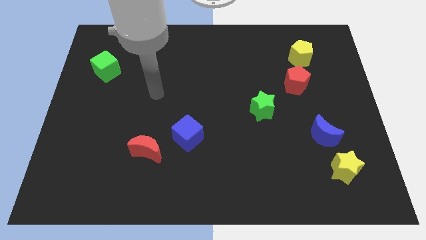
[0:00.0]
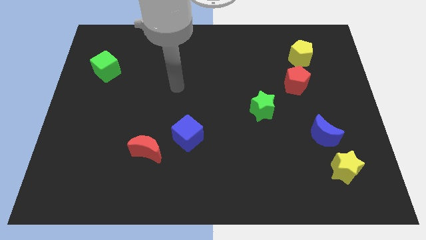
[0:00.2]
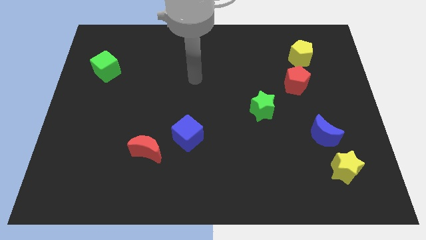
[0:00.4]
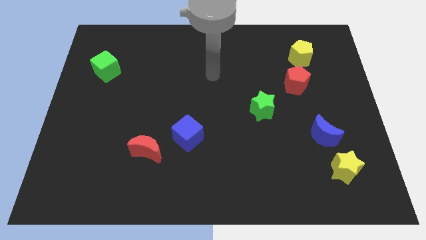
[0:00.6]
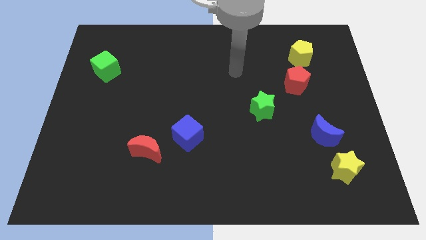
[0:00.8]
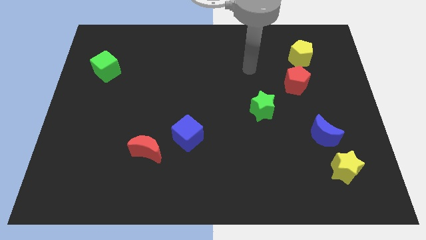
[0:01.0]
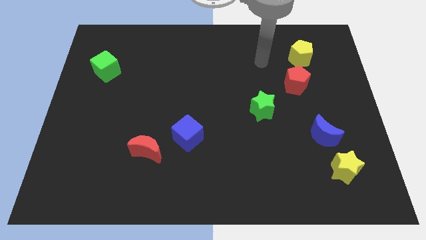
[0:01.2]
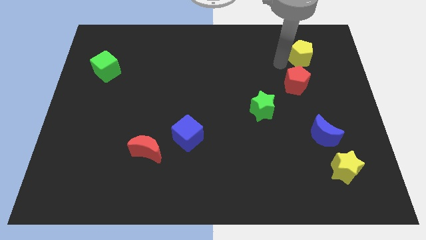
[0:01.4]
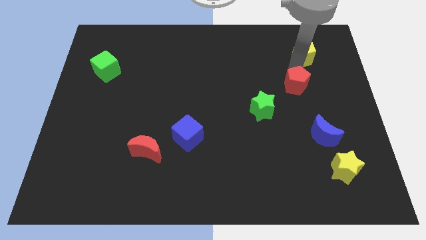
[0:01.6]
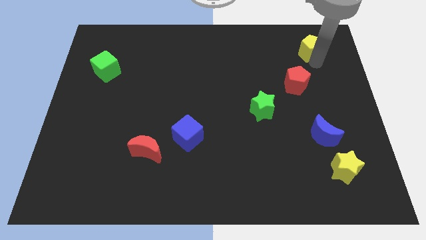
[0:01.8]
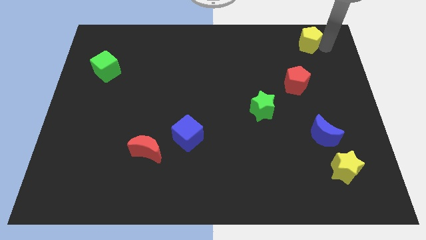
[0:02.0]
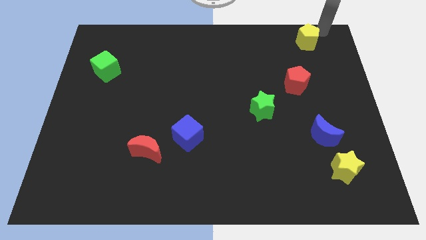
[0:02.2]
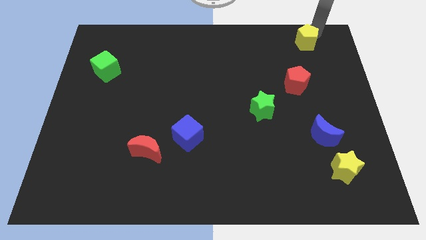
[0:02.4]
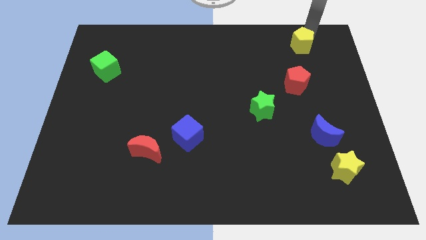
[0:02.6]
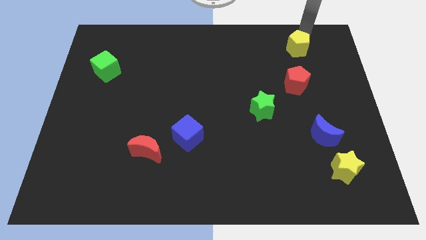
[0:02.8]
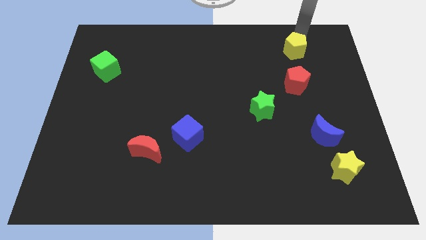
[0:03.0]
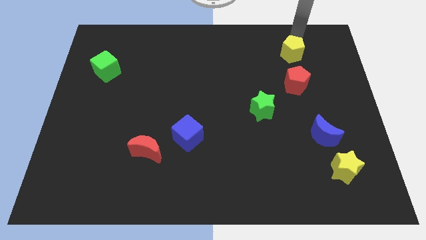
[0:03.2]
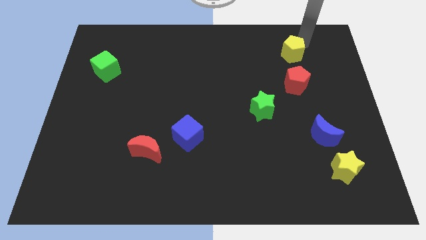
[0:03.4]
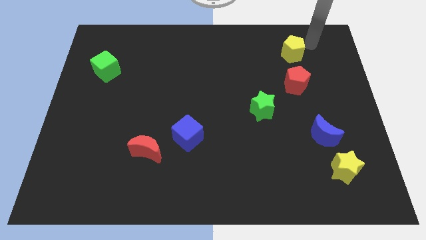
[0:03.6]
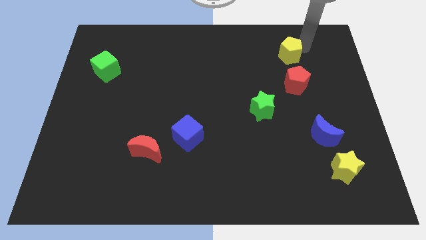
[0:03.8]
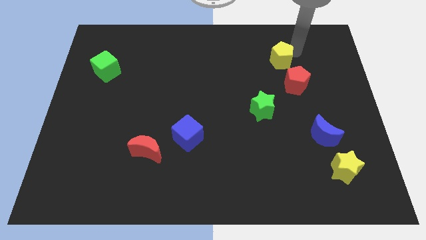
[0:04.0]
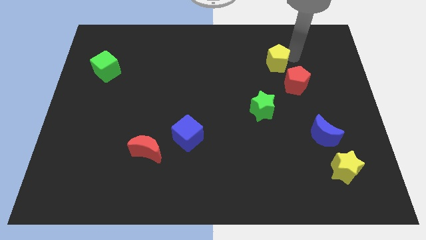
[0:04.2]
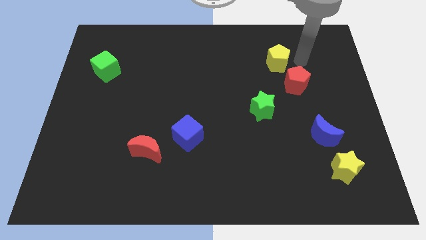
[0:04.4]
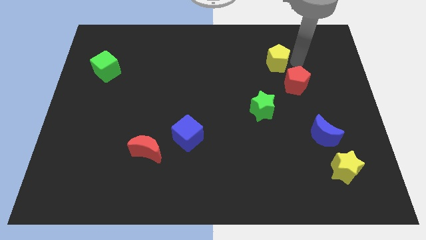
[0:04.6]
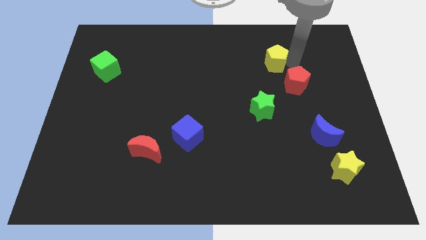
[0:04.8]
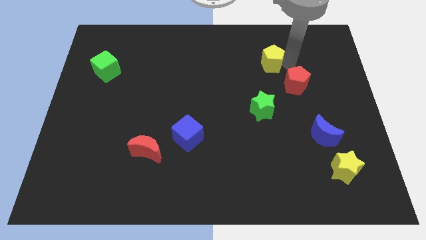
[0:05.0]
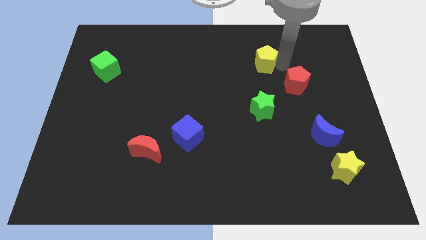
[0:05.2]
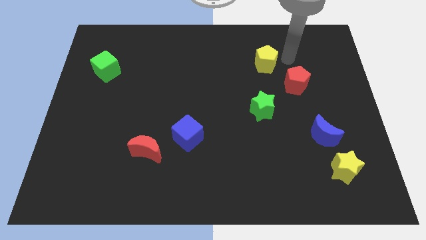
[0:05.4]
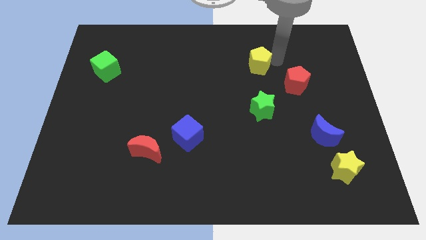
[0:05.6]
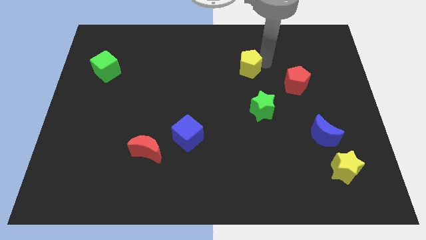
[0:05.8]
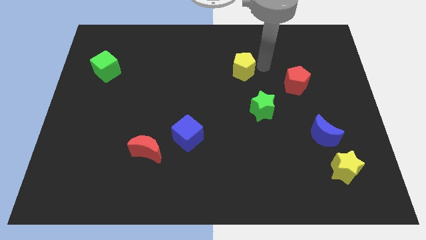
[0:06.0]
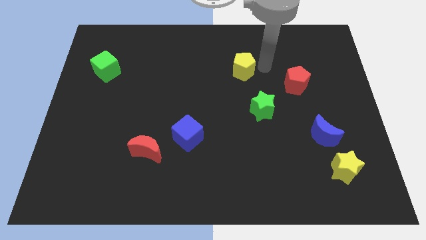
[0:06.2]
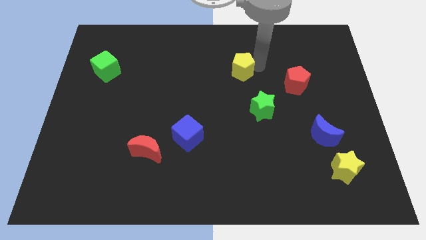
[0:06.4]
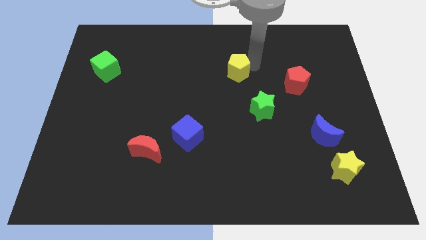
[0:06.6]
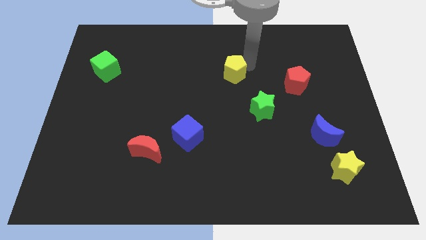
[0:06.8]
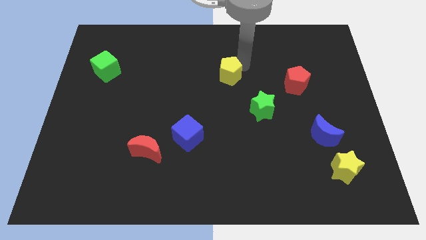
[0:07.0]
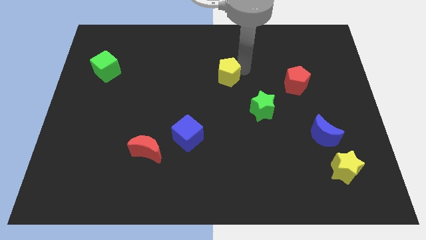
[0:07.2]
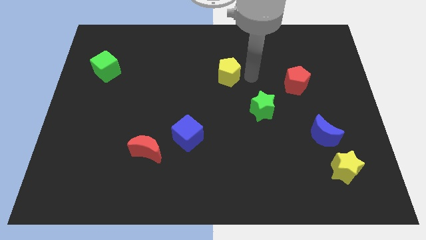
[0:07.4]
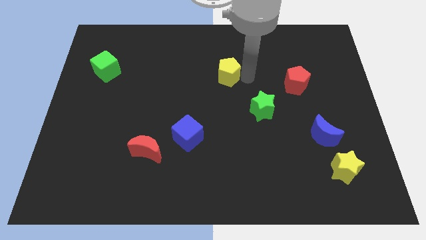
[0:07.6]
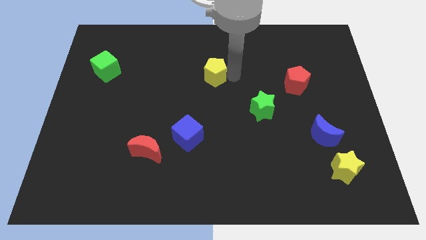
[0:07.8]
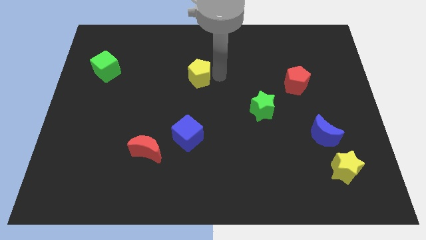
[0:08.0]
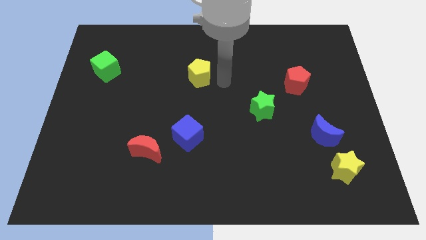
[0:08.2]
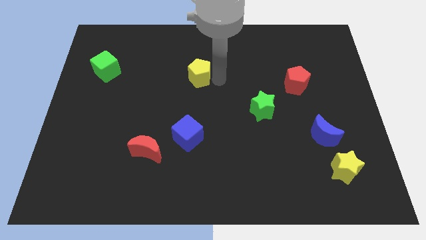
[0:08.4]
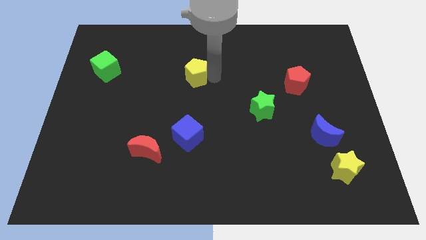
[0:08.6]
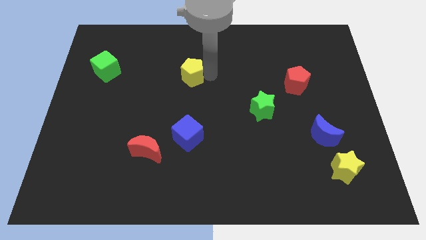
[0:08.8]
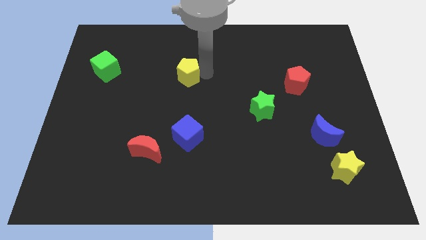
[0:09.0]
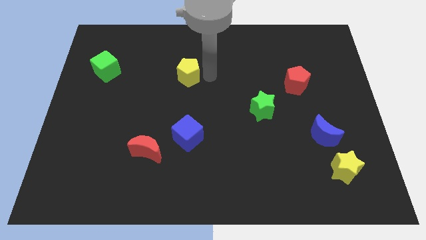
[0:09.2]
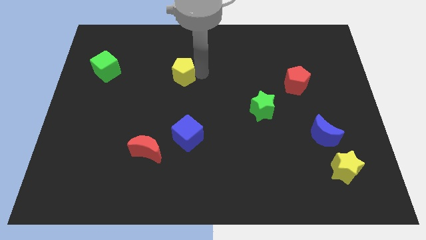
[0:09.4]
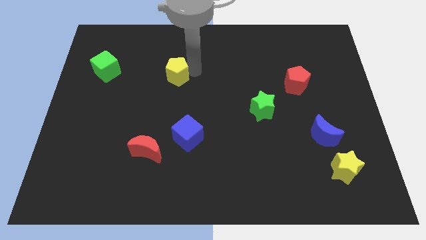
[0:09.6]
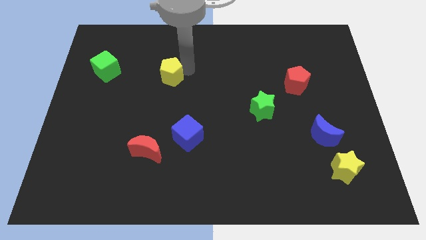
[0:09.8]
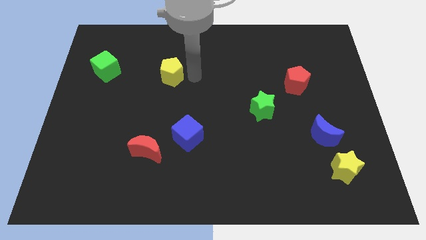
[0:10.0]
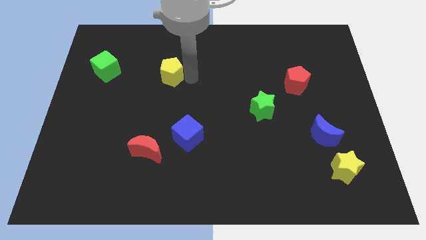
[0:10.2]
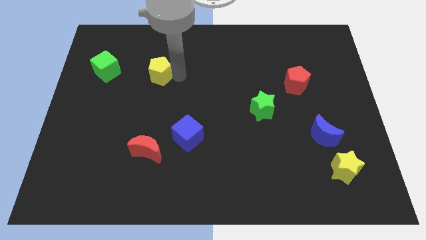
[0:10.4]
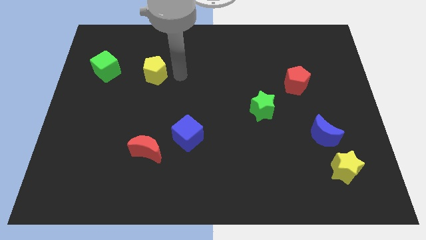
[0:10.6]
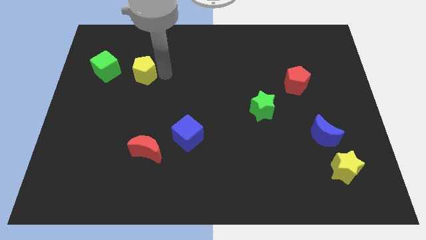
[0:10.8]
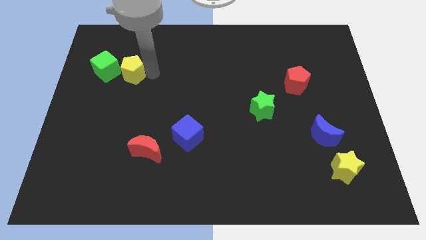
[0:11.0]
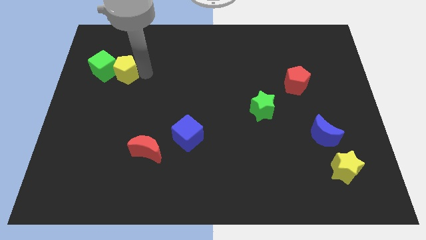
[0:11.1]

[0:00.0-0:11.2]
slide the yellow pentagon to the green cube

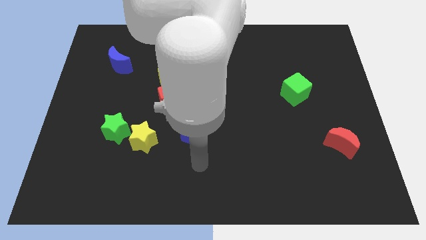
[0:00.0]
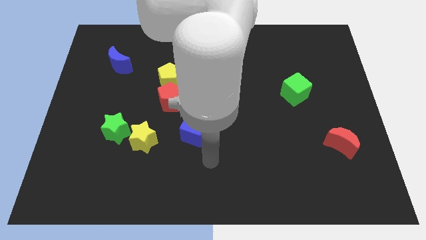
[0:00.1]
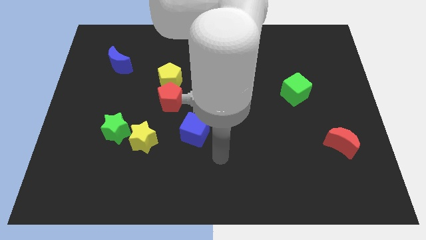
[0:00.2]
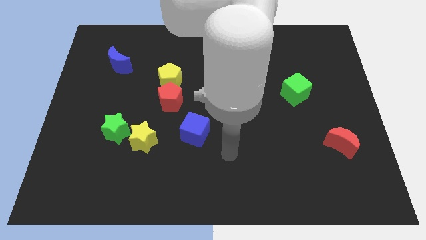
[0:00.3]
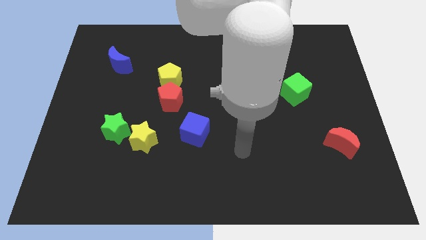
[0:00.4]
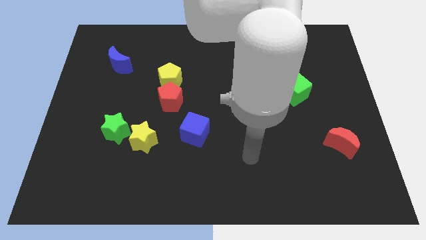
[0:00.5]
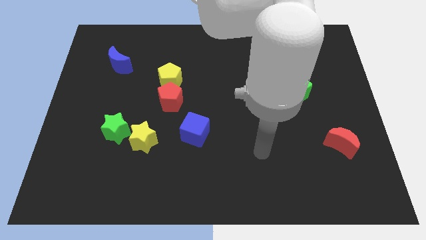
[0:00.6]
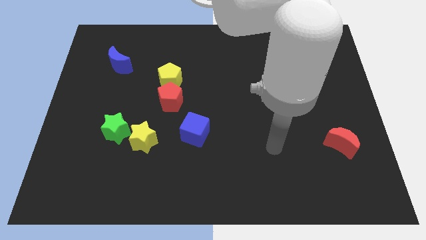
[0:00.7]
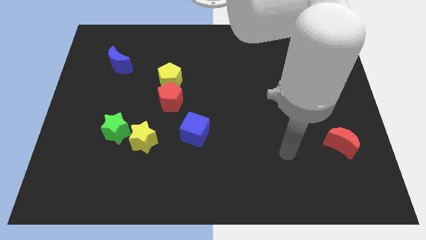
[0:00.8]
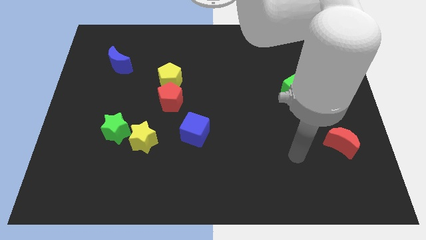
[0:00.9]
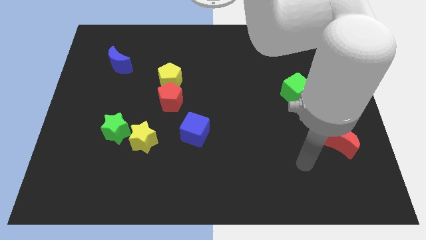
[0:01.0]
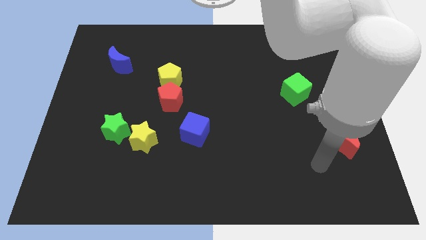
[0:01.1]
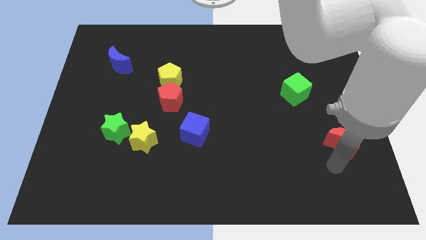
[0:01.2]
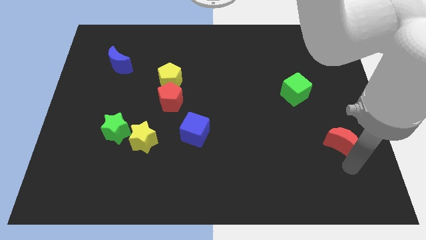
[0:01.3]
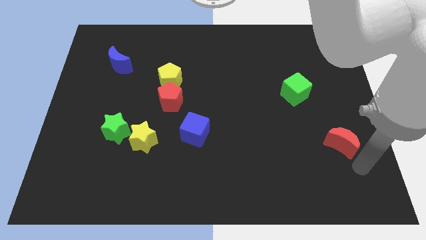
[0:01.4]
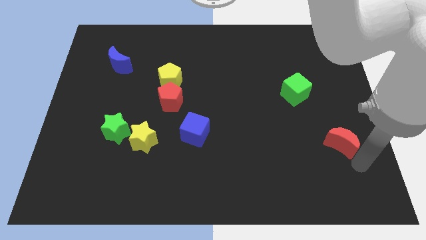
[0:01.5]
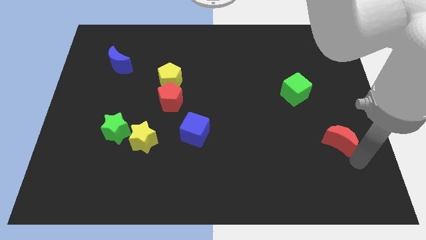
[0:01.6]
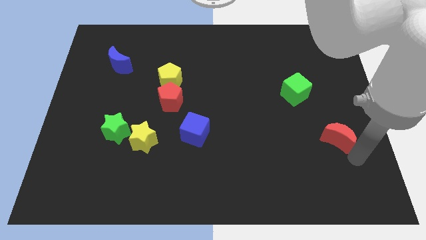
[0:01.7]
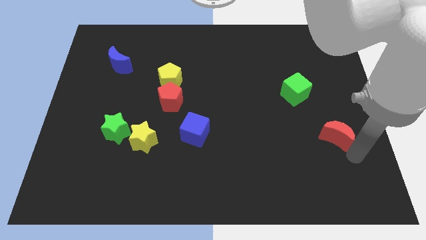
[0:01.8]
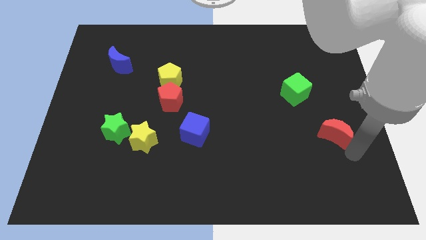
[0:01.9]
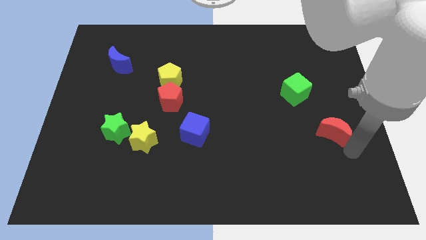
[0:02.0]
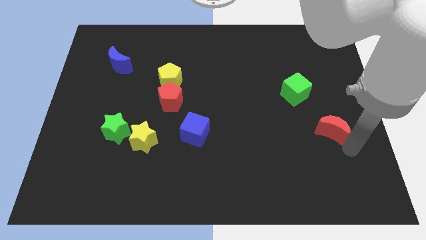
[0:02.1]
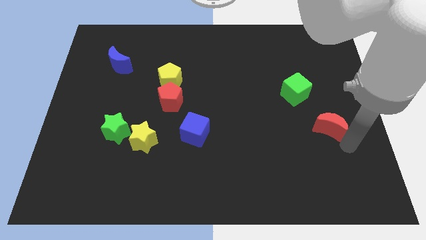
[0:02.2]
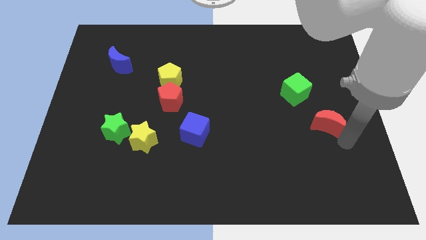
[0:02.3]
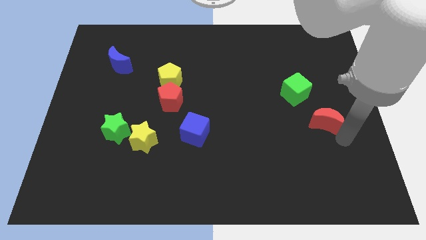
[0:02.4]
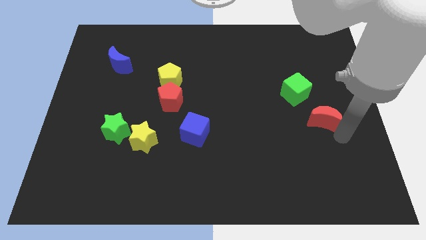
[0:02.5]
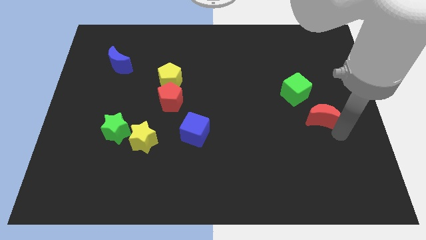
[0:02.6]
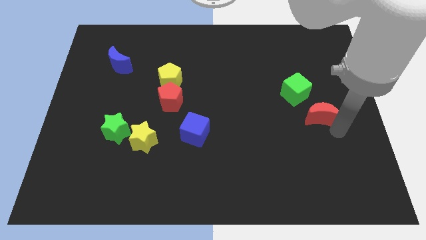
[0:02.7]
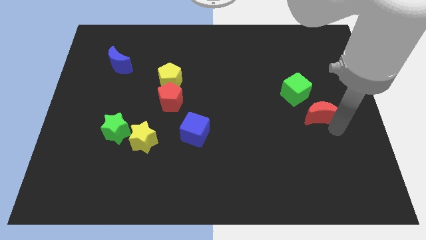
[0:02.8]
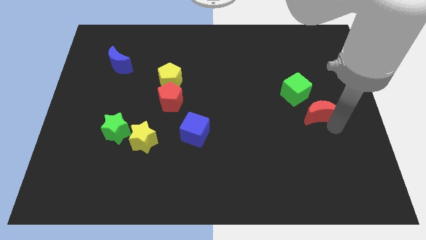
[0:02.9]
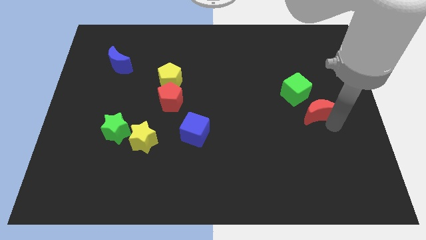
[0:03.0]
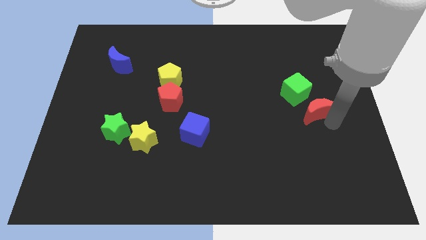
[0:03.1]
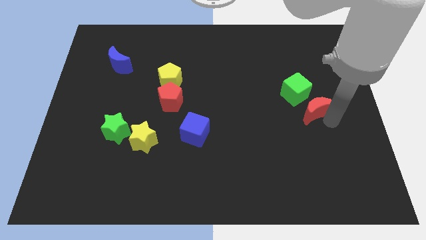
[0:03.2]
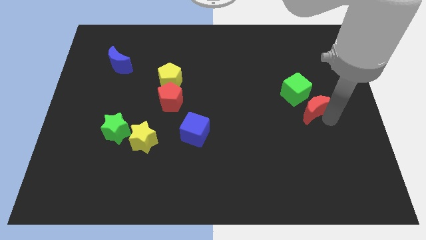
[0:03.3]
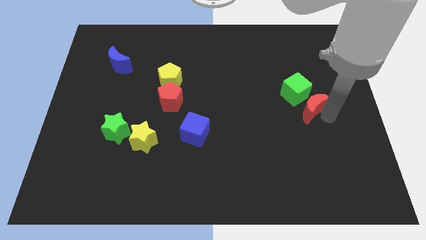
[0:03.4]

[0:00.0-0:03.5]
push the red moon towards the green cube
